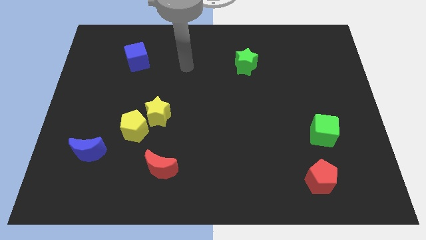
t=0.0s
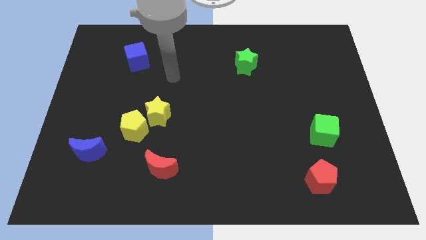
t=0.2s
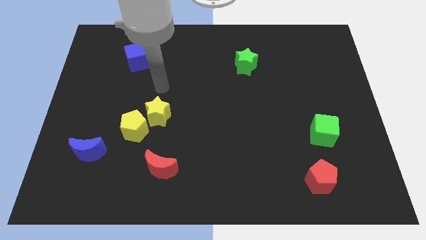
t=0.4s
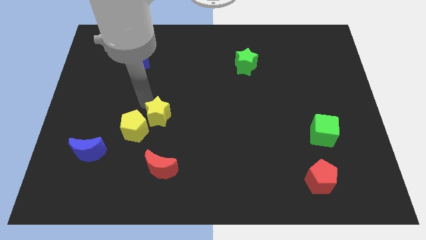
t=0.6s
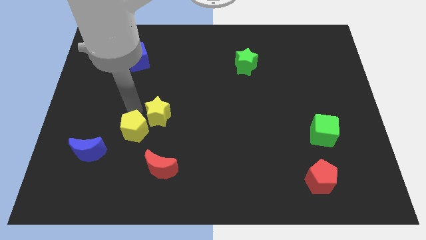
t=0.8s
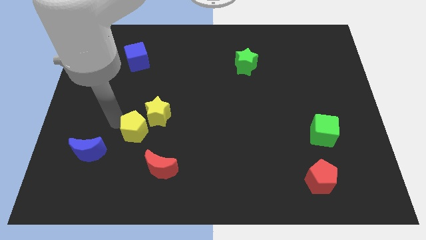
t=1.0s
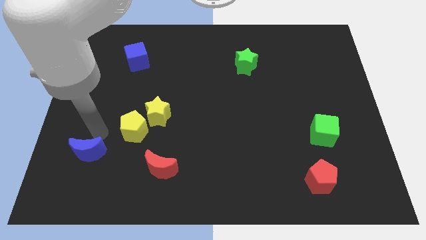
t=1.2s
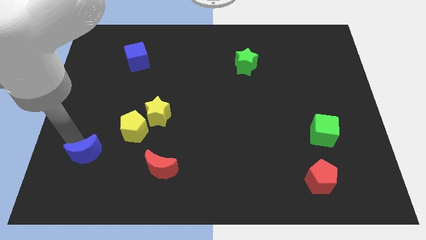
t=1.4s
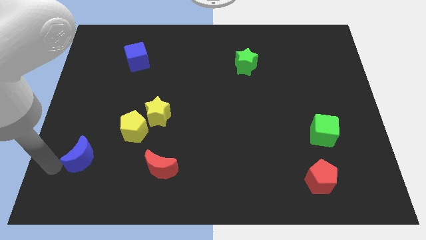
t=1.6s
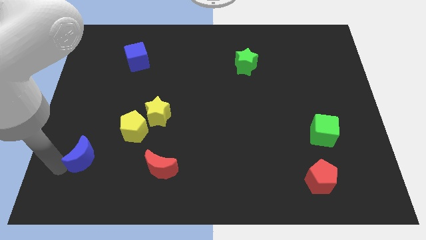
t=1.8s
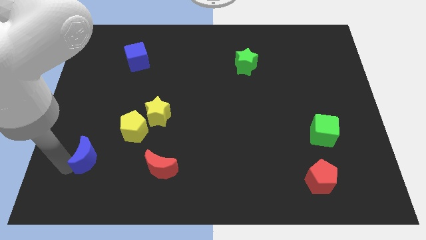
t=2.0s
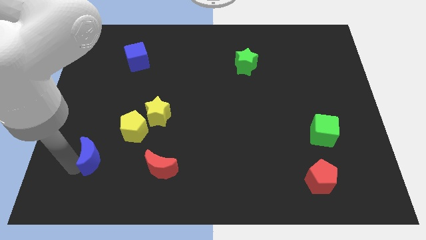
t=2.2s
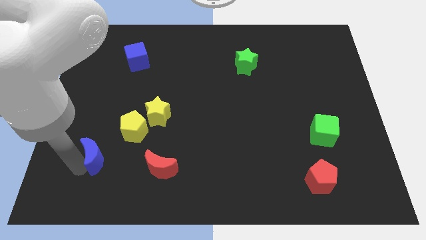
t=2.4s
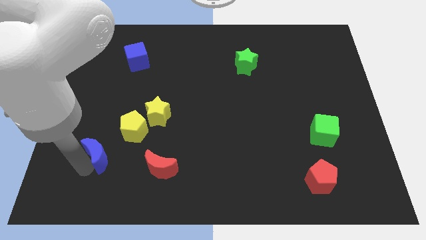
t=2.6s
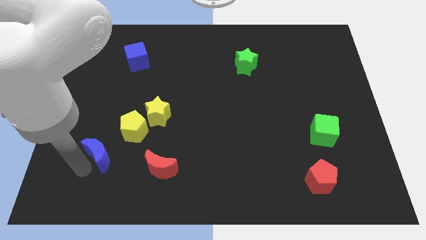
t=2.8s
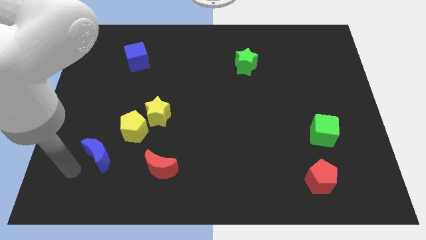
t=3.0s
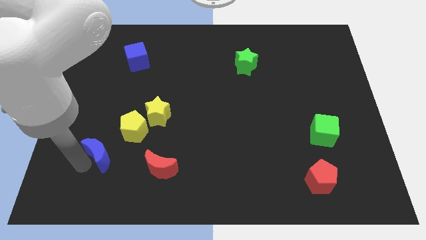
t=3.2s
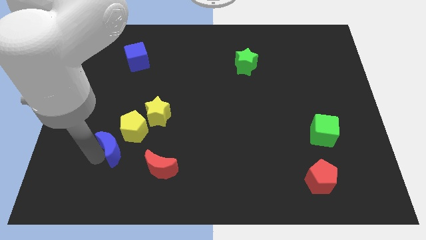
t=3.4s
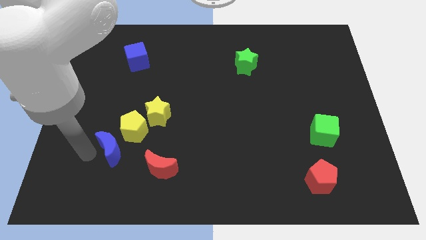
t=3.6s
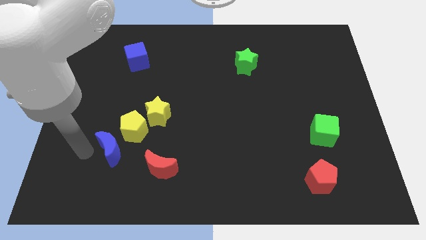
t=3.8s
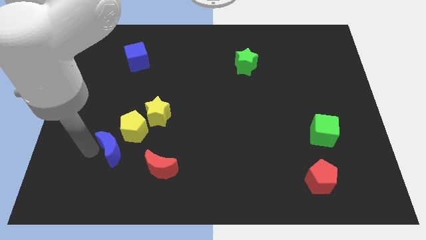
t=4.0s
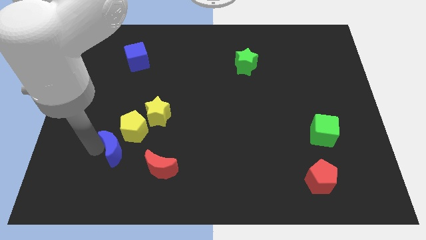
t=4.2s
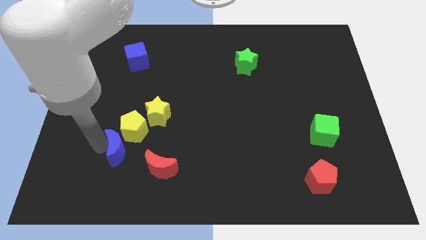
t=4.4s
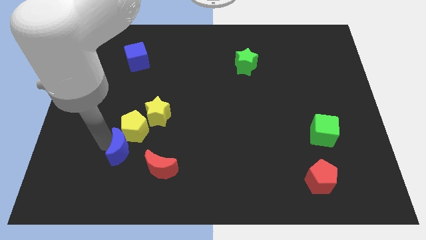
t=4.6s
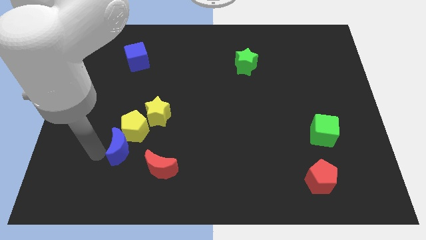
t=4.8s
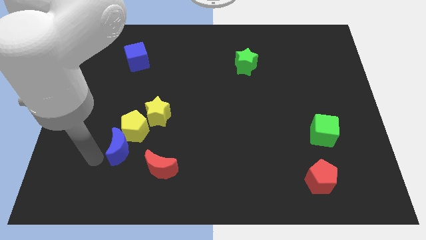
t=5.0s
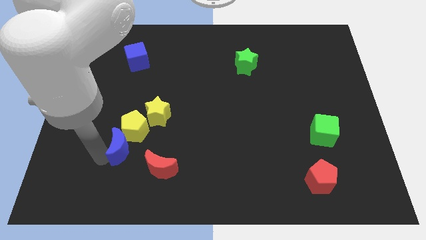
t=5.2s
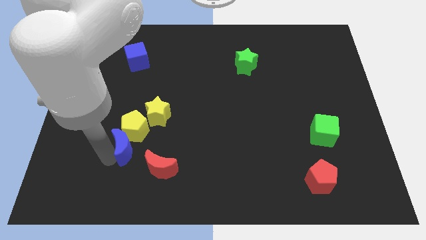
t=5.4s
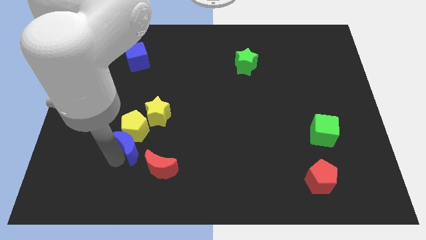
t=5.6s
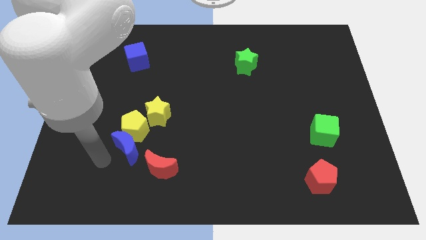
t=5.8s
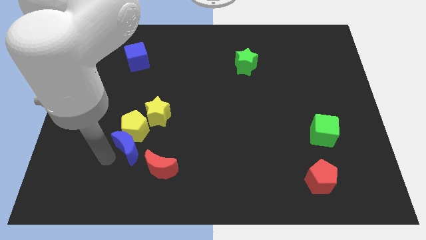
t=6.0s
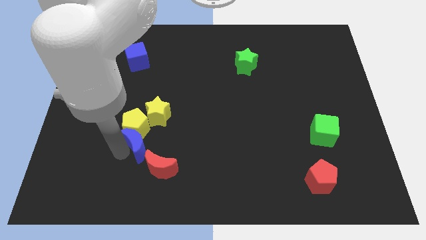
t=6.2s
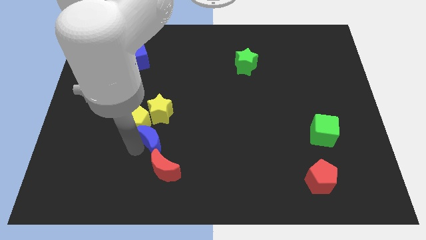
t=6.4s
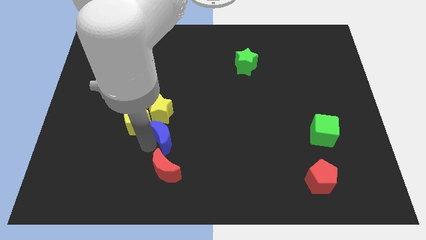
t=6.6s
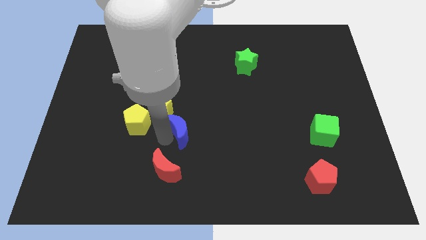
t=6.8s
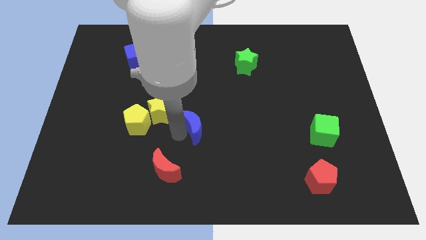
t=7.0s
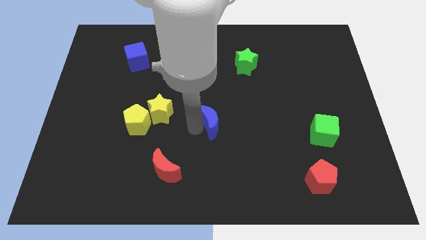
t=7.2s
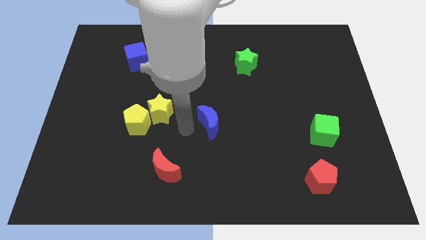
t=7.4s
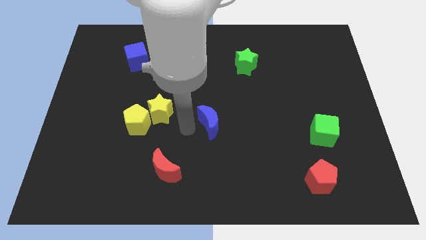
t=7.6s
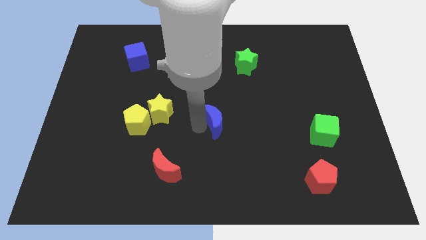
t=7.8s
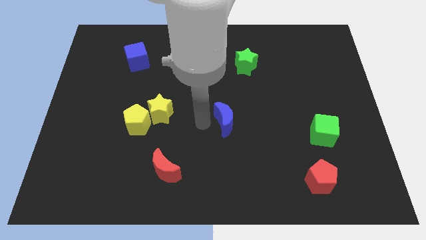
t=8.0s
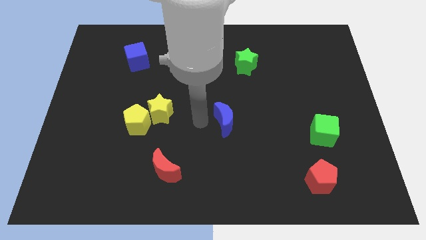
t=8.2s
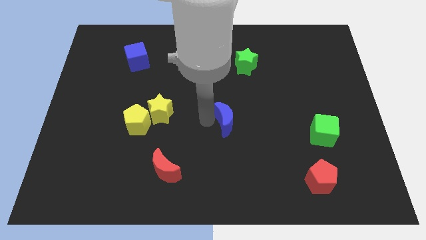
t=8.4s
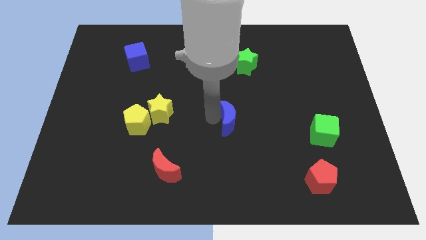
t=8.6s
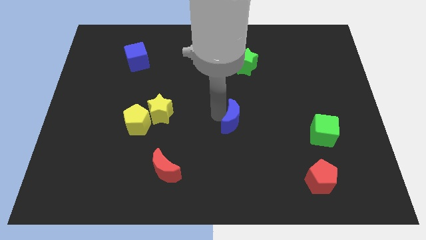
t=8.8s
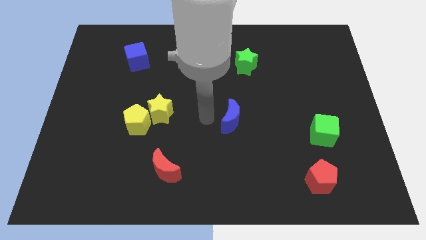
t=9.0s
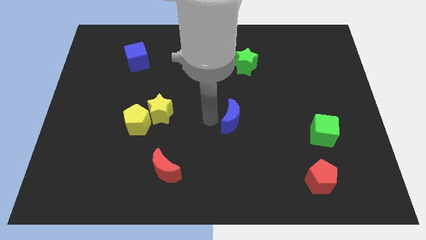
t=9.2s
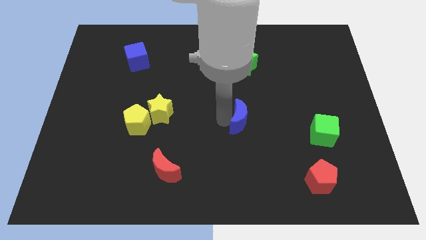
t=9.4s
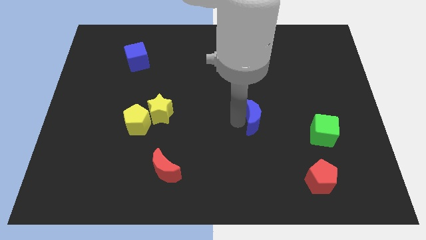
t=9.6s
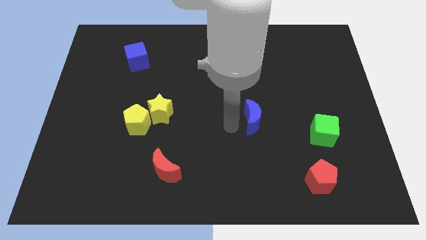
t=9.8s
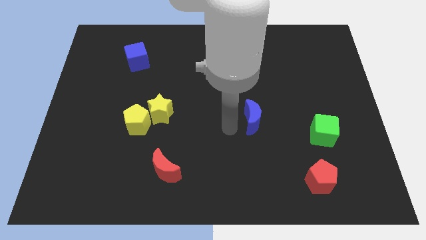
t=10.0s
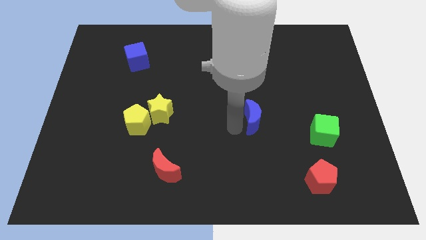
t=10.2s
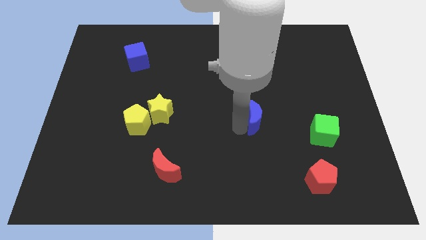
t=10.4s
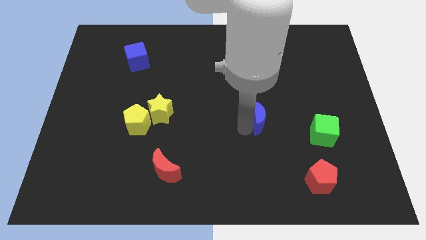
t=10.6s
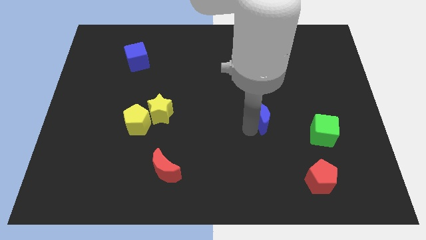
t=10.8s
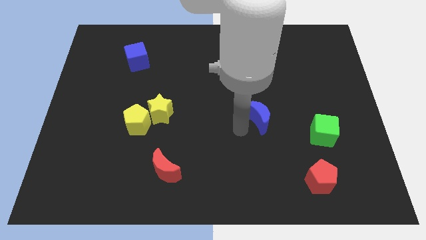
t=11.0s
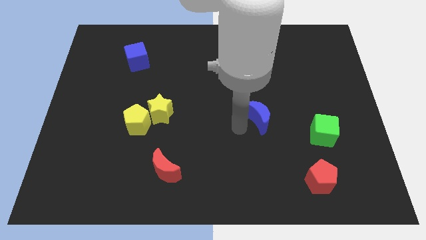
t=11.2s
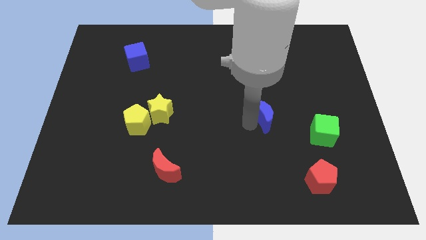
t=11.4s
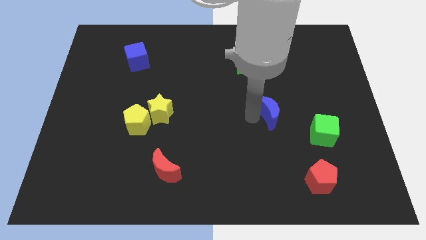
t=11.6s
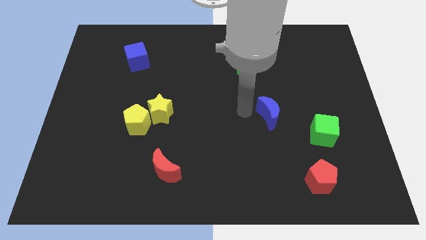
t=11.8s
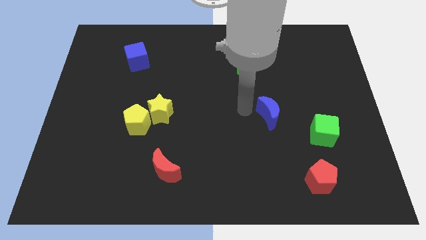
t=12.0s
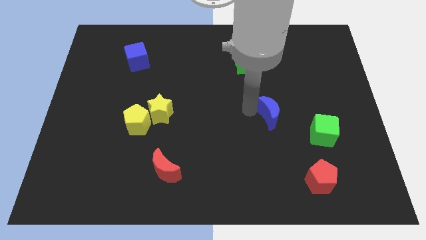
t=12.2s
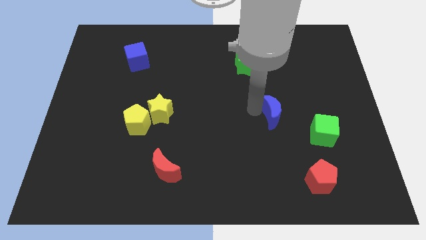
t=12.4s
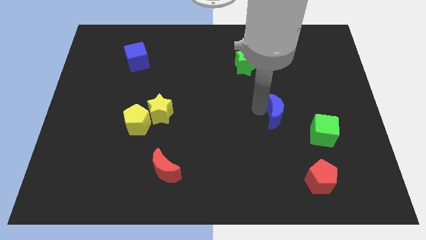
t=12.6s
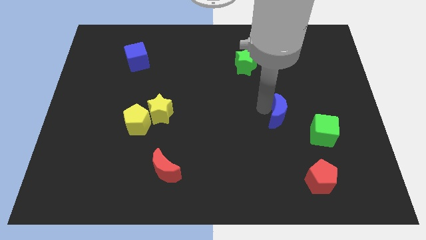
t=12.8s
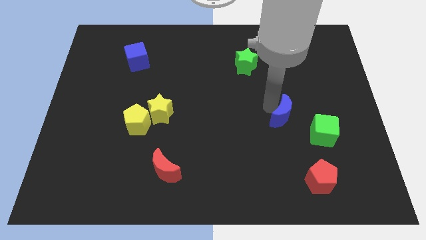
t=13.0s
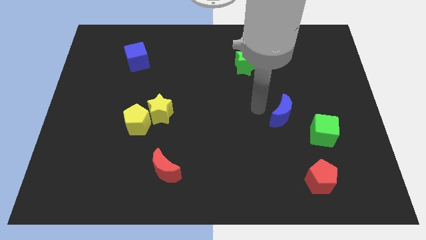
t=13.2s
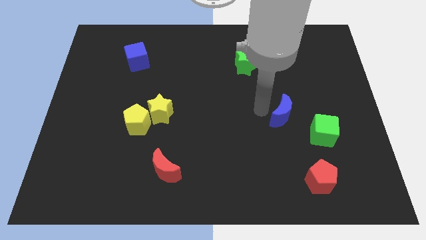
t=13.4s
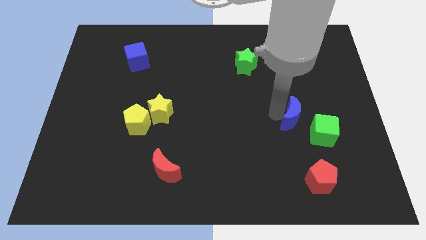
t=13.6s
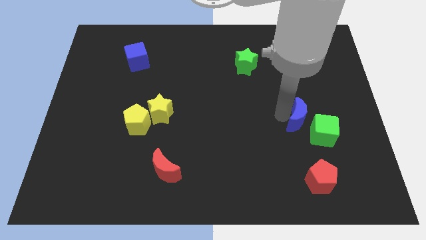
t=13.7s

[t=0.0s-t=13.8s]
move the blue moon to the top of the red pentagon

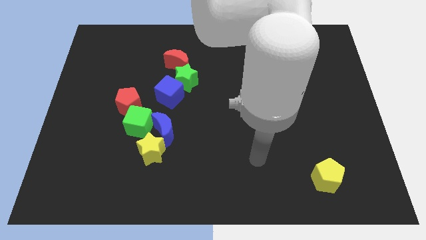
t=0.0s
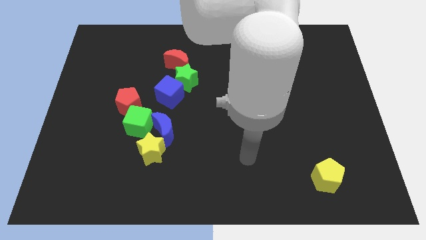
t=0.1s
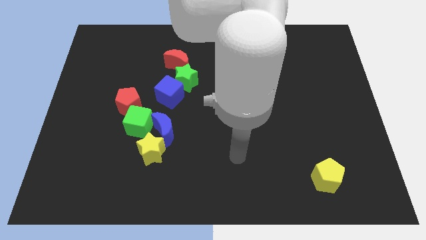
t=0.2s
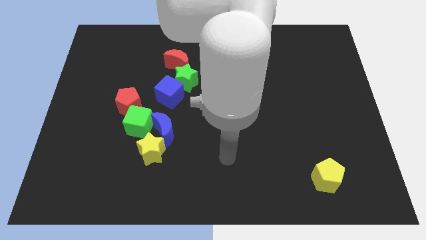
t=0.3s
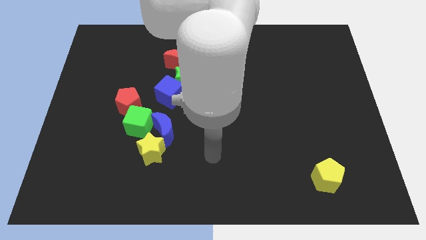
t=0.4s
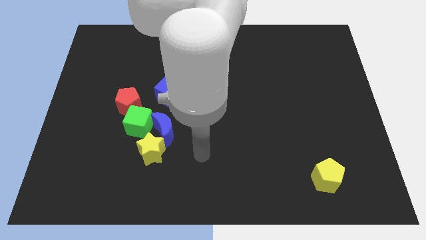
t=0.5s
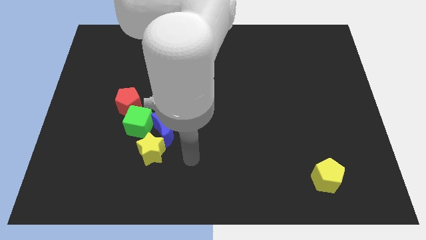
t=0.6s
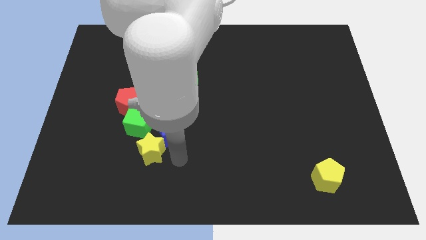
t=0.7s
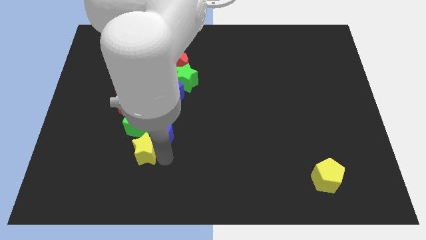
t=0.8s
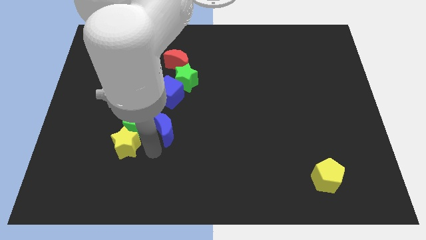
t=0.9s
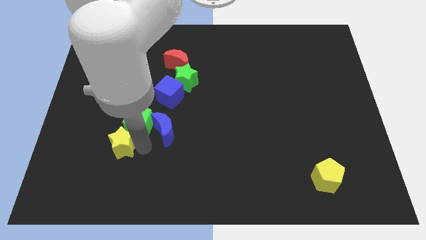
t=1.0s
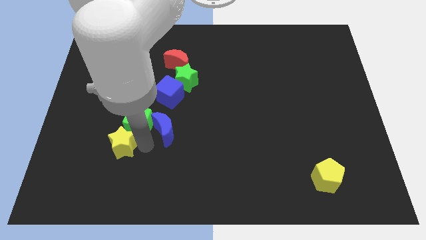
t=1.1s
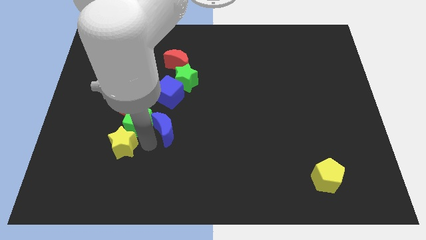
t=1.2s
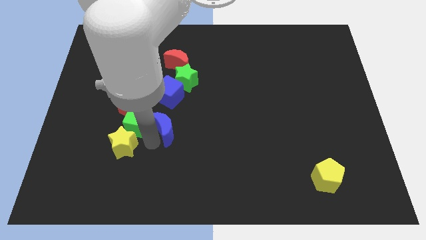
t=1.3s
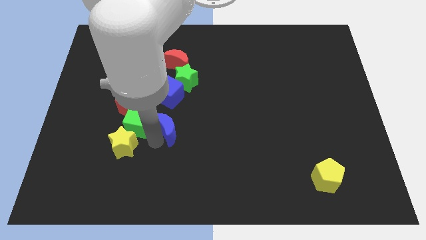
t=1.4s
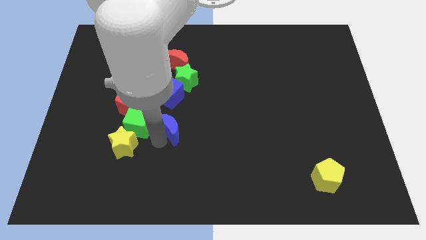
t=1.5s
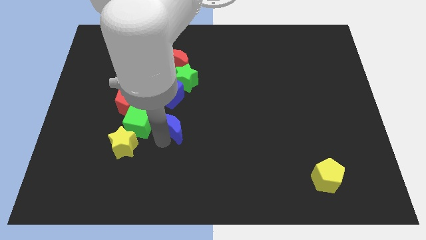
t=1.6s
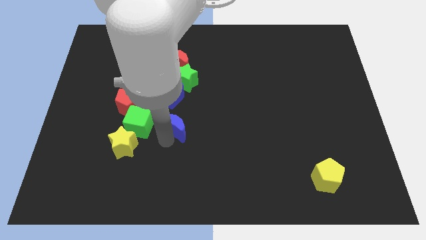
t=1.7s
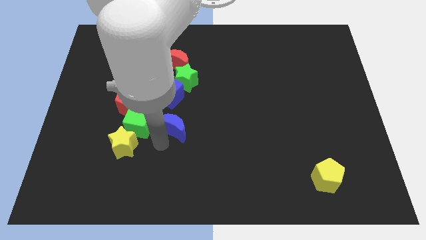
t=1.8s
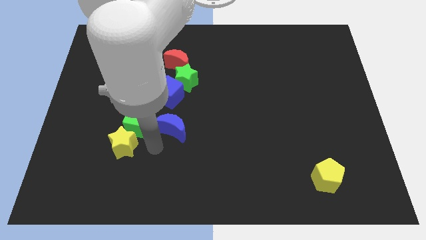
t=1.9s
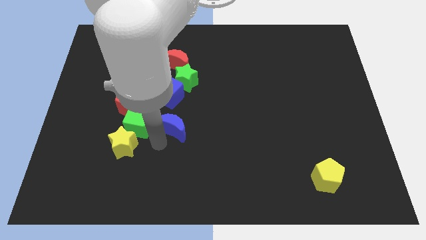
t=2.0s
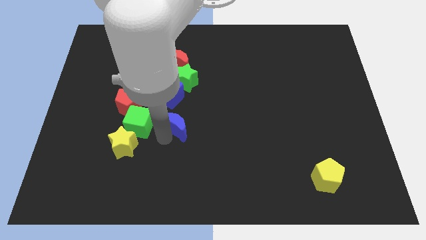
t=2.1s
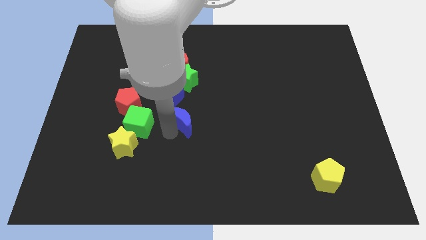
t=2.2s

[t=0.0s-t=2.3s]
slide the blue moon to the bottom right of the blue cube
